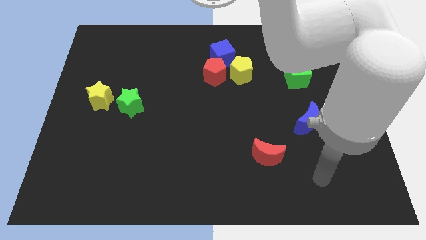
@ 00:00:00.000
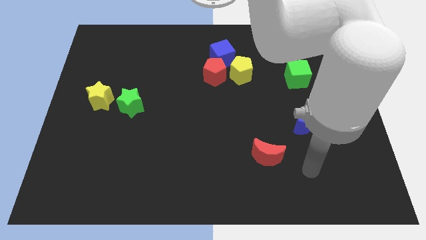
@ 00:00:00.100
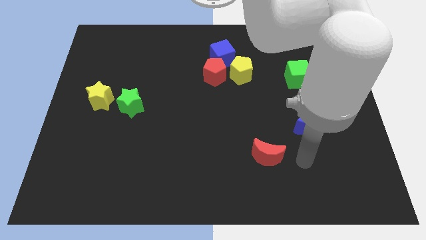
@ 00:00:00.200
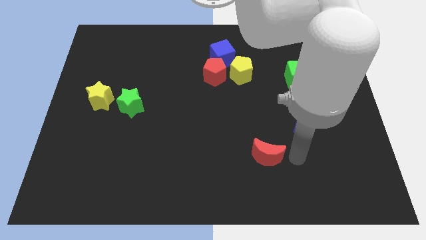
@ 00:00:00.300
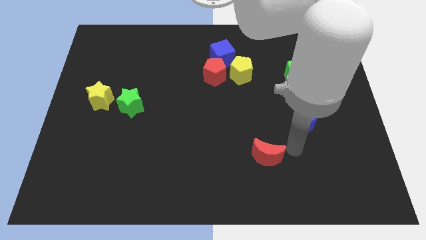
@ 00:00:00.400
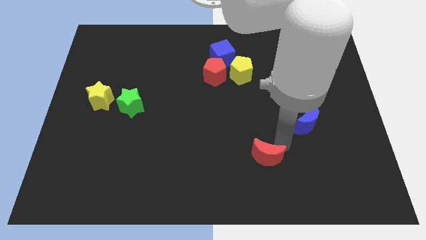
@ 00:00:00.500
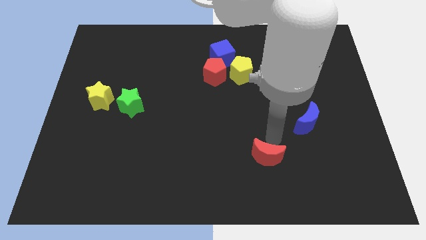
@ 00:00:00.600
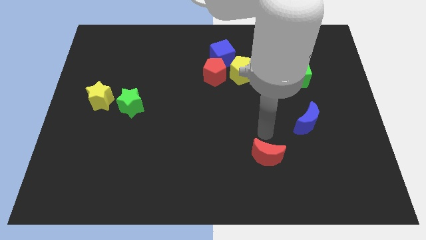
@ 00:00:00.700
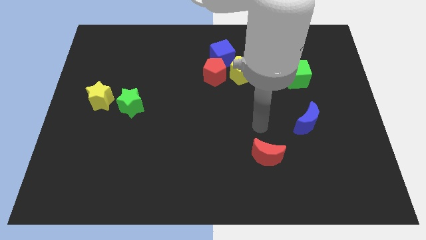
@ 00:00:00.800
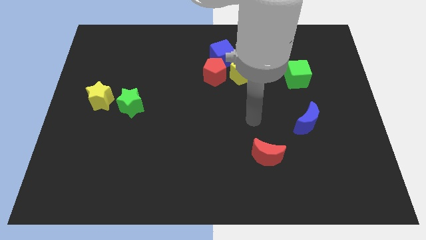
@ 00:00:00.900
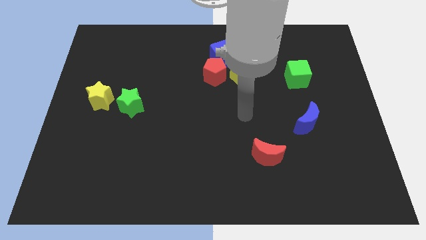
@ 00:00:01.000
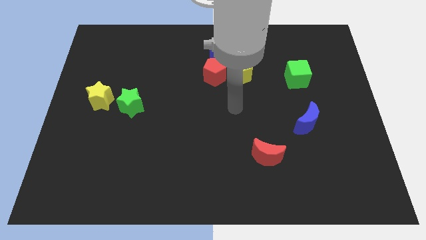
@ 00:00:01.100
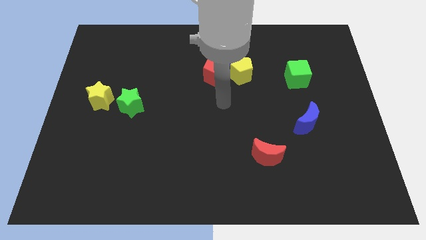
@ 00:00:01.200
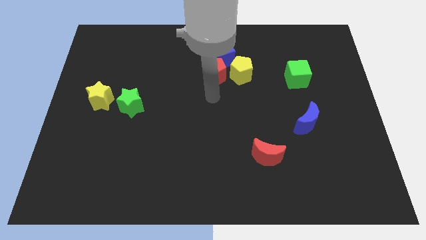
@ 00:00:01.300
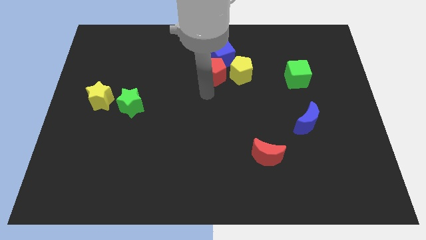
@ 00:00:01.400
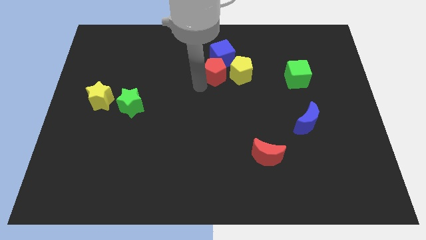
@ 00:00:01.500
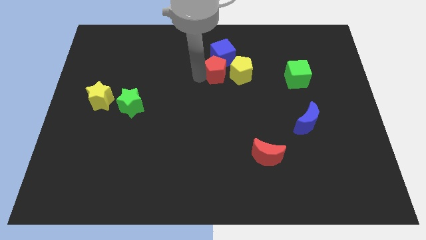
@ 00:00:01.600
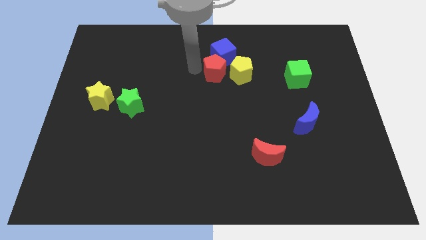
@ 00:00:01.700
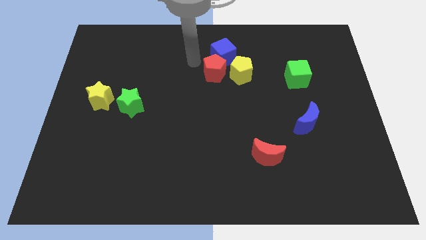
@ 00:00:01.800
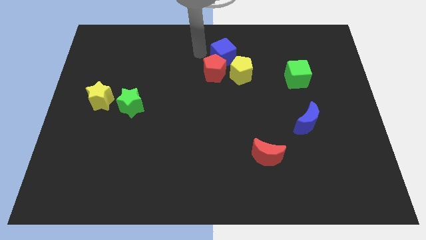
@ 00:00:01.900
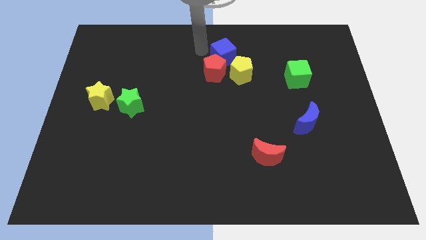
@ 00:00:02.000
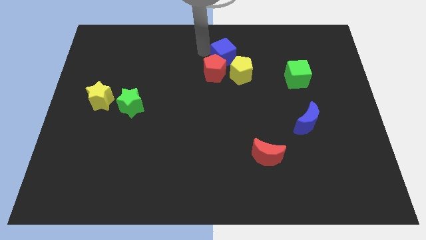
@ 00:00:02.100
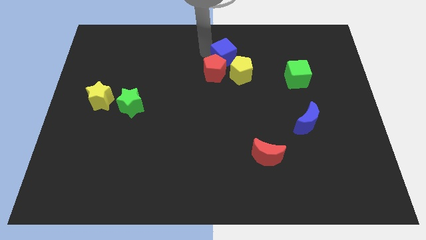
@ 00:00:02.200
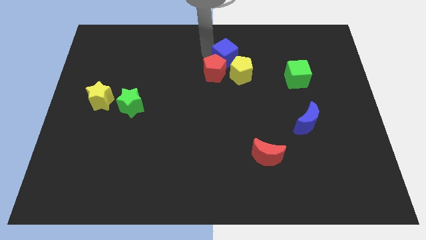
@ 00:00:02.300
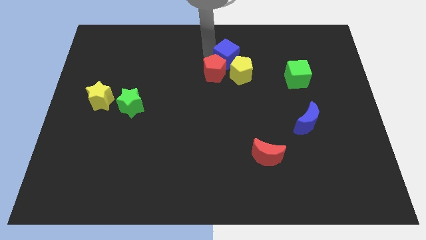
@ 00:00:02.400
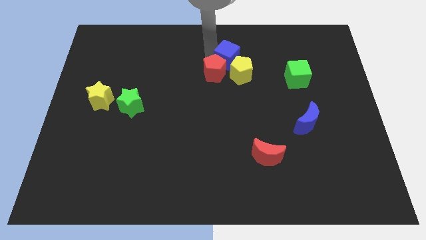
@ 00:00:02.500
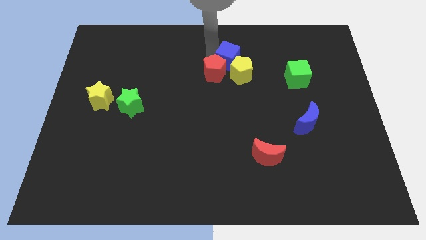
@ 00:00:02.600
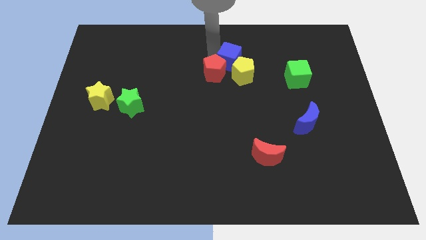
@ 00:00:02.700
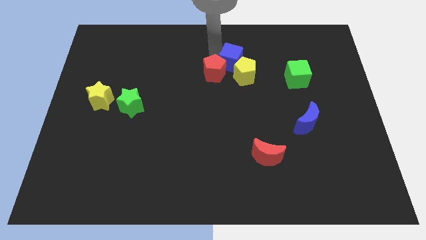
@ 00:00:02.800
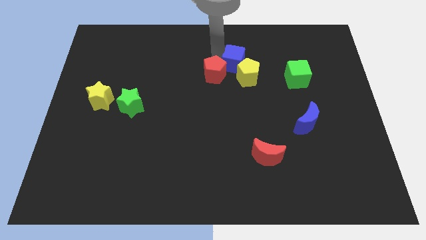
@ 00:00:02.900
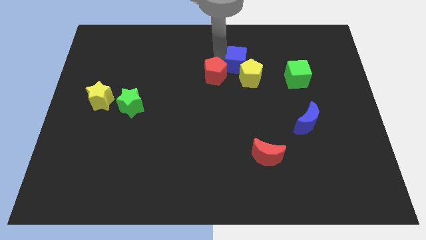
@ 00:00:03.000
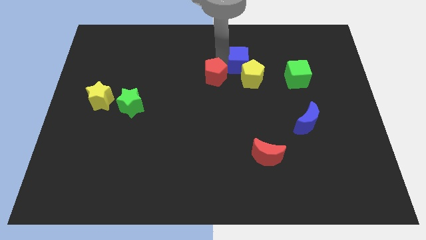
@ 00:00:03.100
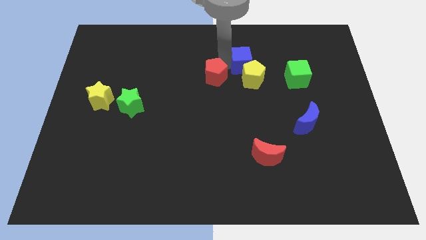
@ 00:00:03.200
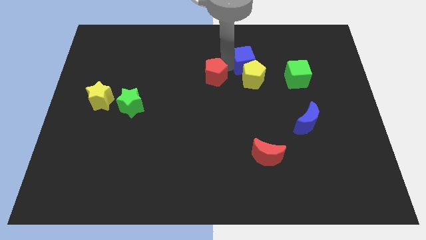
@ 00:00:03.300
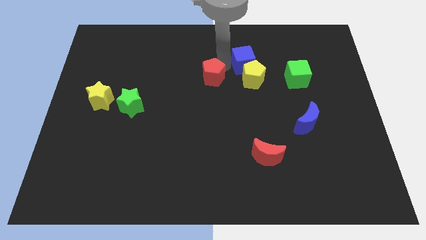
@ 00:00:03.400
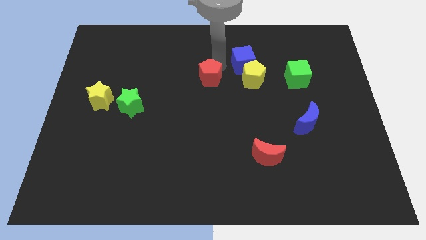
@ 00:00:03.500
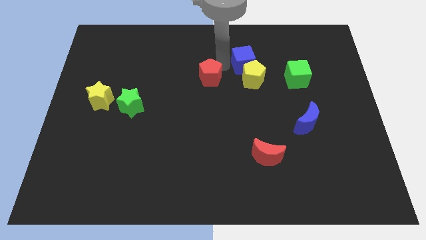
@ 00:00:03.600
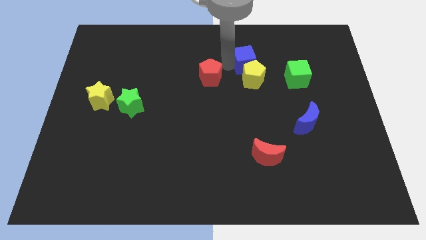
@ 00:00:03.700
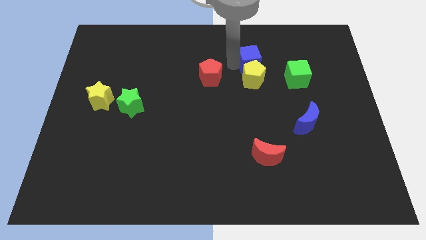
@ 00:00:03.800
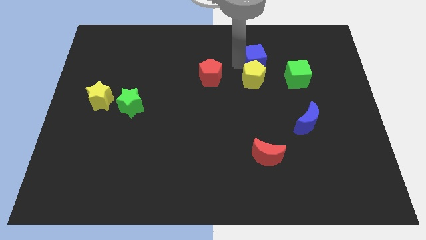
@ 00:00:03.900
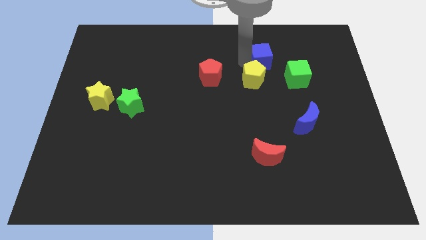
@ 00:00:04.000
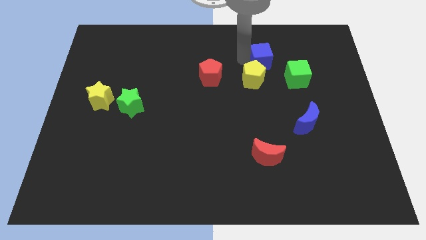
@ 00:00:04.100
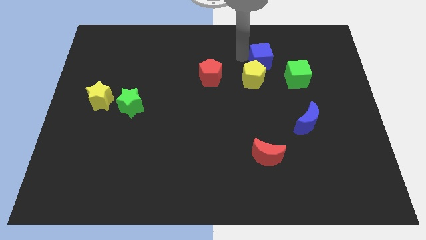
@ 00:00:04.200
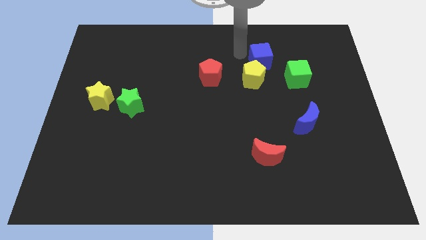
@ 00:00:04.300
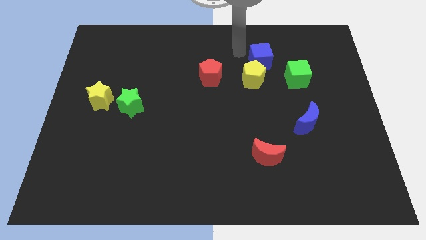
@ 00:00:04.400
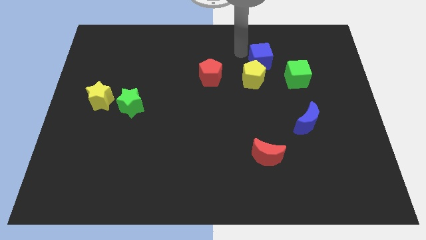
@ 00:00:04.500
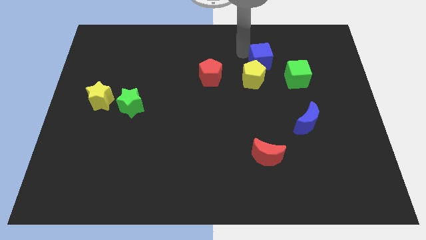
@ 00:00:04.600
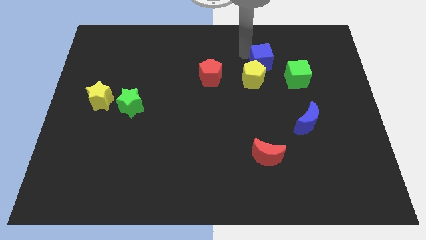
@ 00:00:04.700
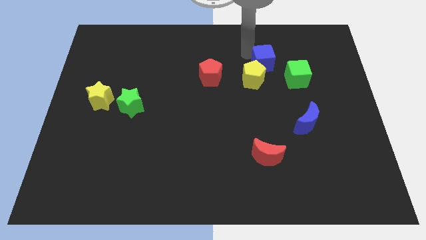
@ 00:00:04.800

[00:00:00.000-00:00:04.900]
slightly push the blue cube down and right diagonally

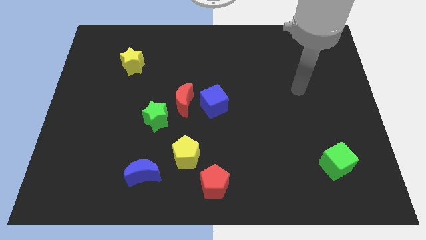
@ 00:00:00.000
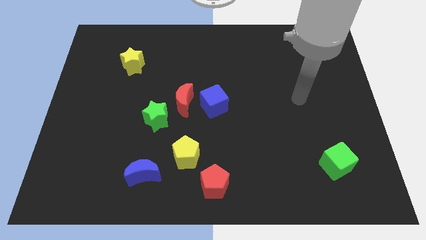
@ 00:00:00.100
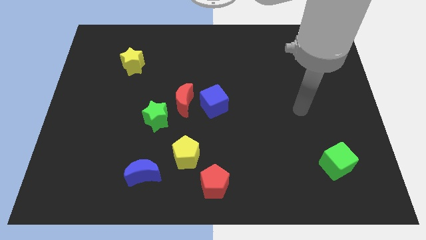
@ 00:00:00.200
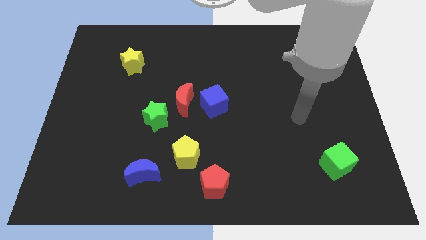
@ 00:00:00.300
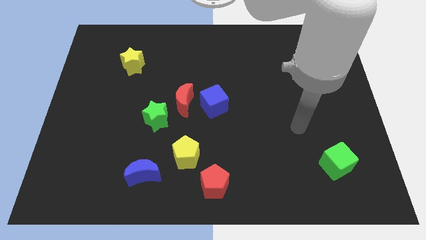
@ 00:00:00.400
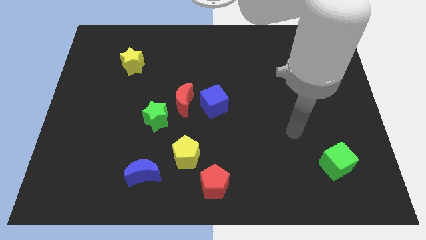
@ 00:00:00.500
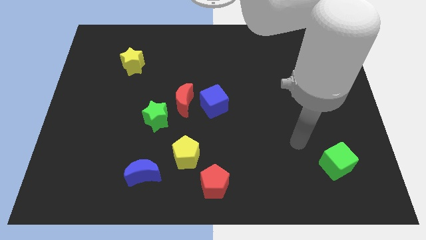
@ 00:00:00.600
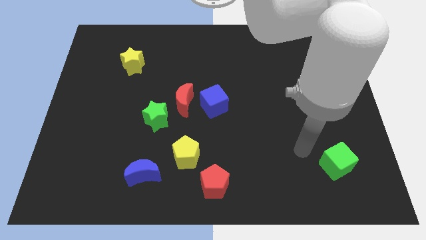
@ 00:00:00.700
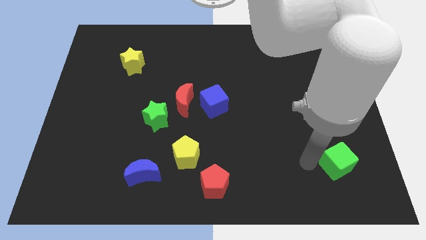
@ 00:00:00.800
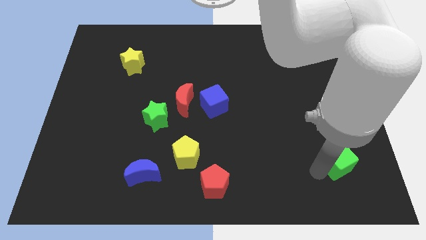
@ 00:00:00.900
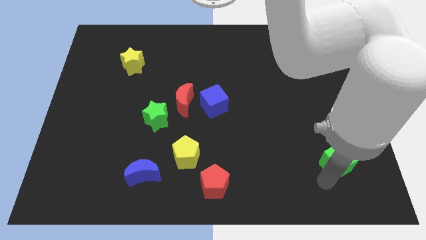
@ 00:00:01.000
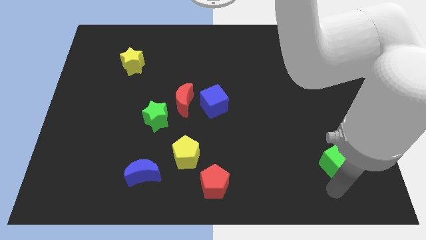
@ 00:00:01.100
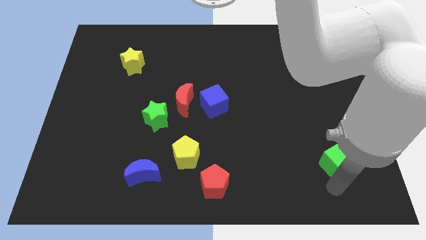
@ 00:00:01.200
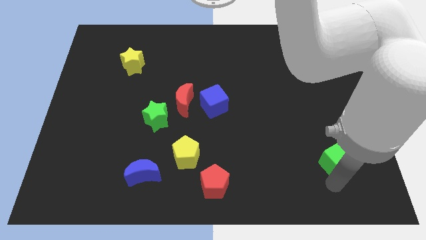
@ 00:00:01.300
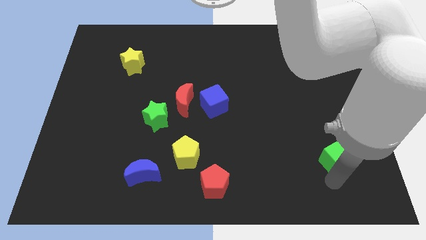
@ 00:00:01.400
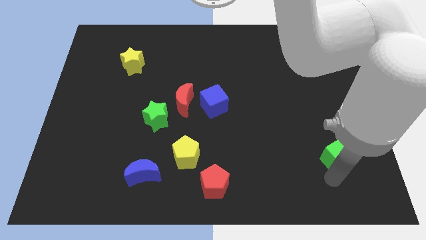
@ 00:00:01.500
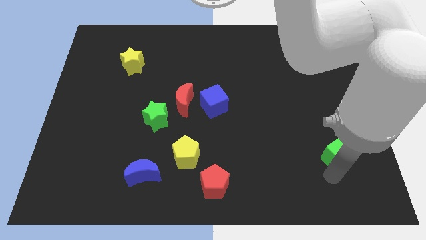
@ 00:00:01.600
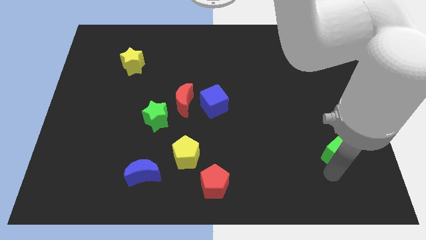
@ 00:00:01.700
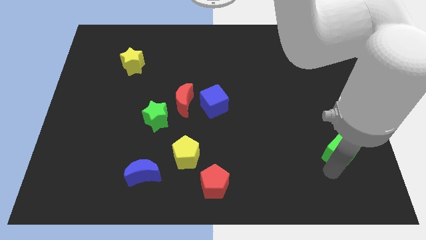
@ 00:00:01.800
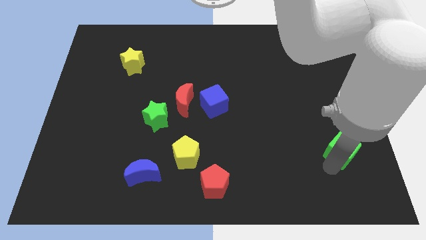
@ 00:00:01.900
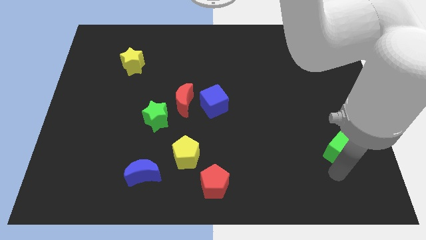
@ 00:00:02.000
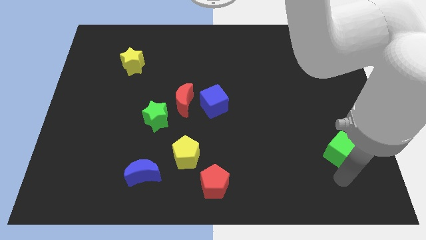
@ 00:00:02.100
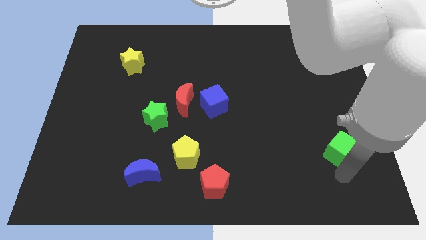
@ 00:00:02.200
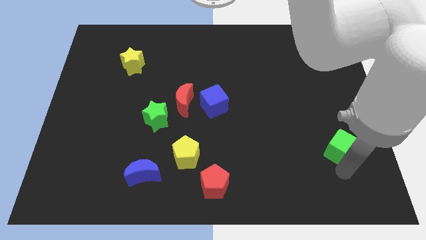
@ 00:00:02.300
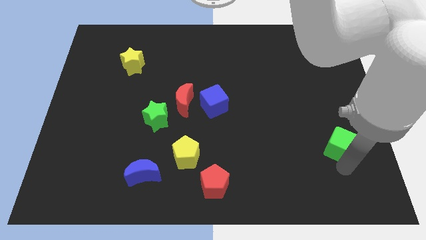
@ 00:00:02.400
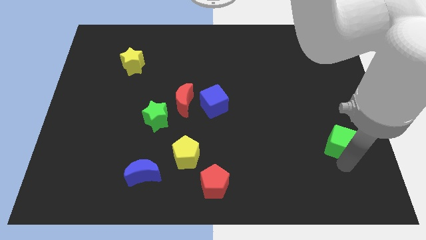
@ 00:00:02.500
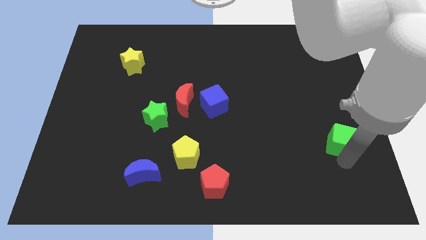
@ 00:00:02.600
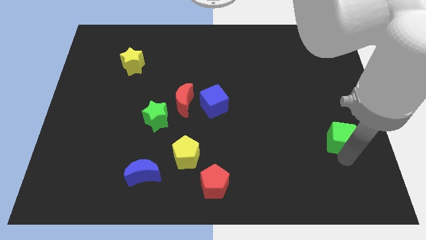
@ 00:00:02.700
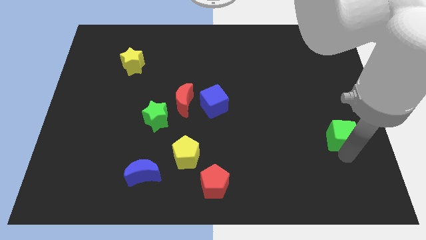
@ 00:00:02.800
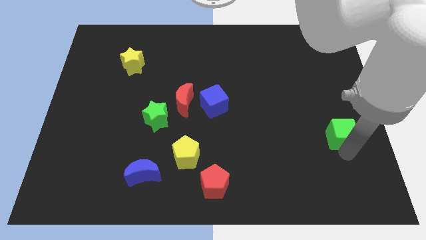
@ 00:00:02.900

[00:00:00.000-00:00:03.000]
move the green cube somewhat up

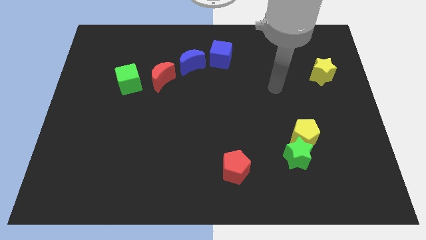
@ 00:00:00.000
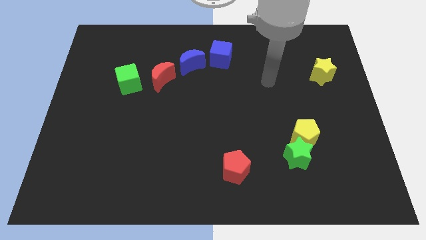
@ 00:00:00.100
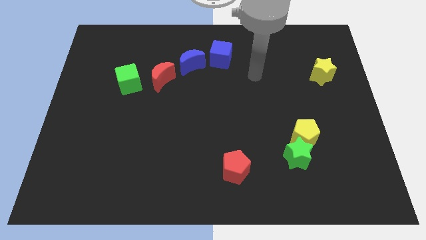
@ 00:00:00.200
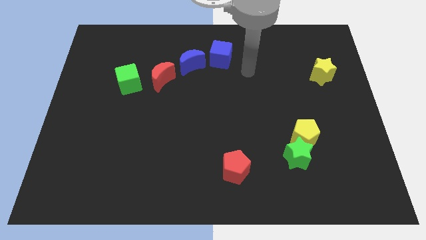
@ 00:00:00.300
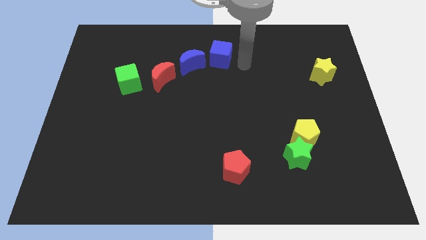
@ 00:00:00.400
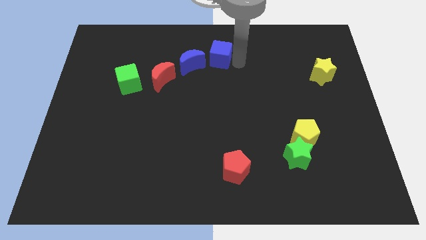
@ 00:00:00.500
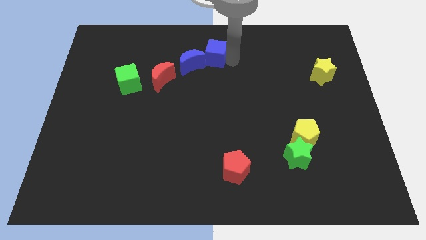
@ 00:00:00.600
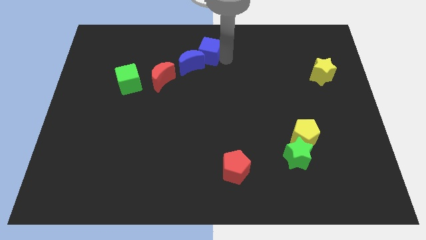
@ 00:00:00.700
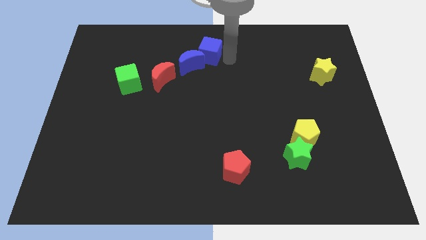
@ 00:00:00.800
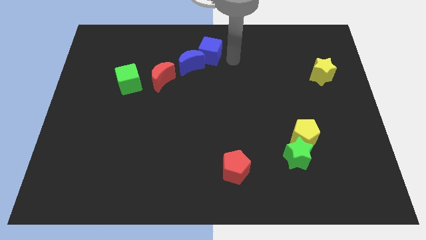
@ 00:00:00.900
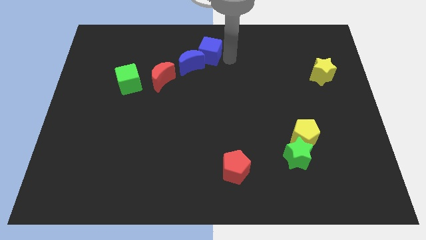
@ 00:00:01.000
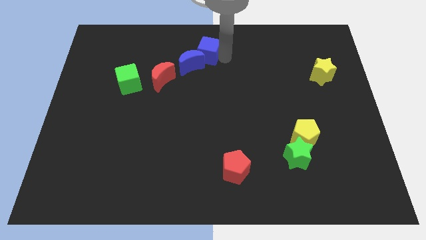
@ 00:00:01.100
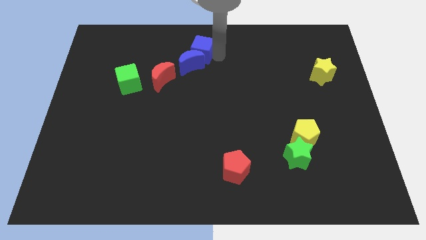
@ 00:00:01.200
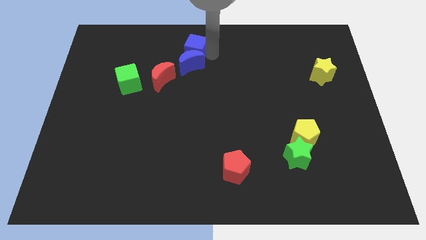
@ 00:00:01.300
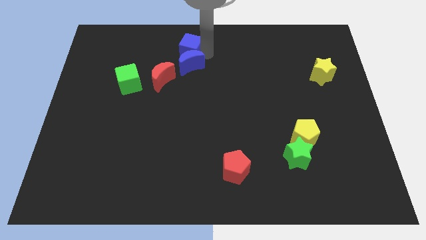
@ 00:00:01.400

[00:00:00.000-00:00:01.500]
slightly slide the blue cube left
